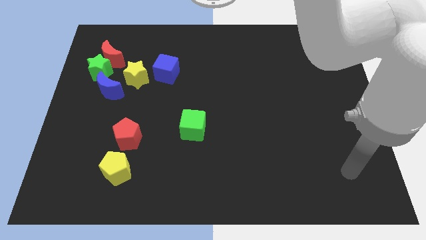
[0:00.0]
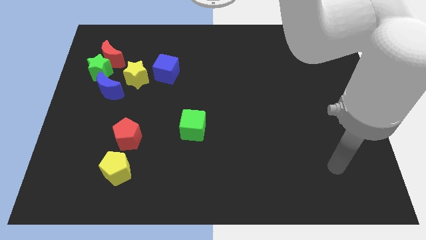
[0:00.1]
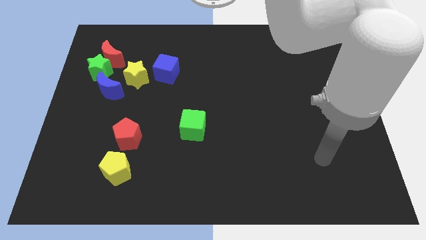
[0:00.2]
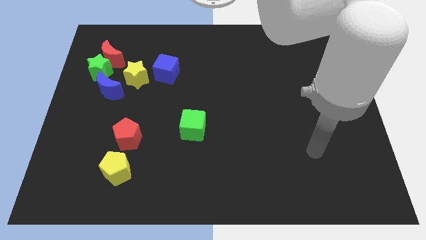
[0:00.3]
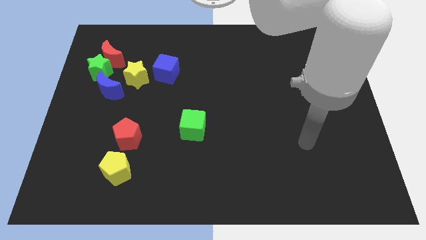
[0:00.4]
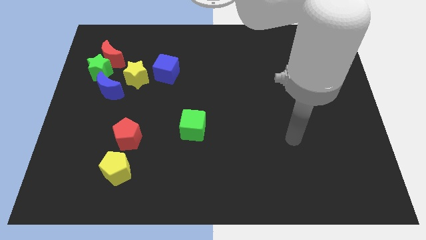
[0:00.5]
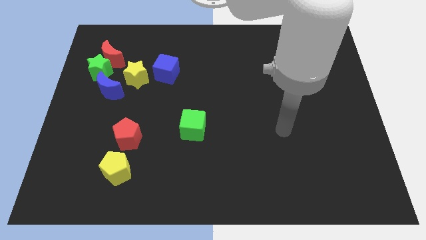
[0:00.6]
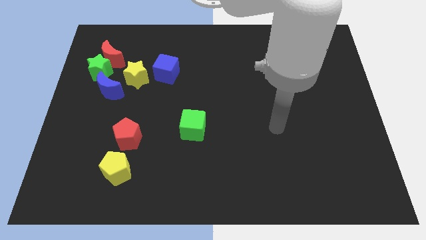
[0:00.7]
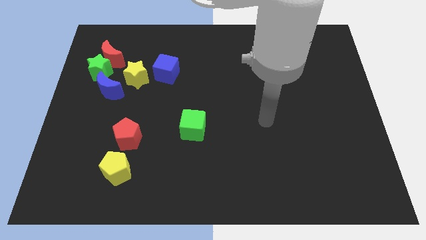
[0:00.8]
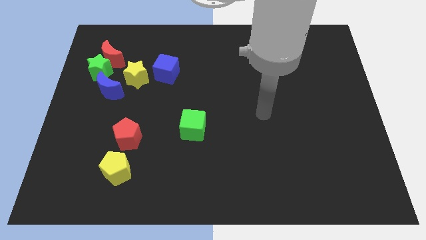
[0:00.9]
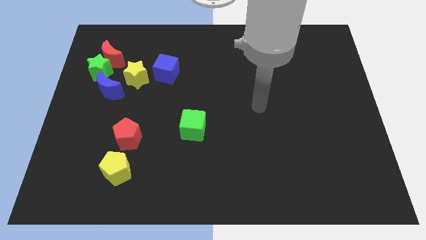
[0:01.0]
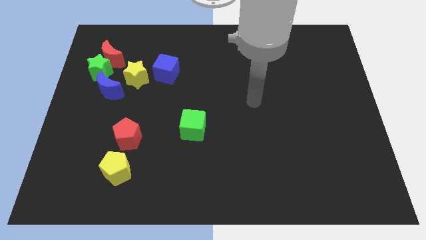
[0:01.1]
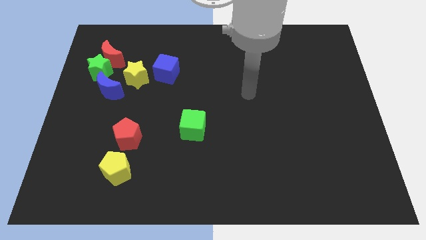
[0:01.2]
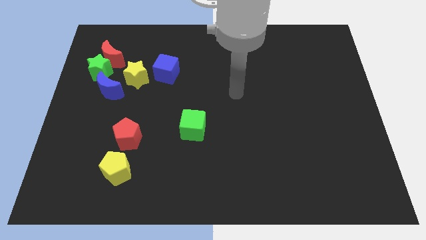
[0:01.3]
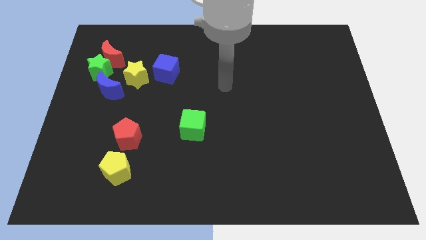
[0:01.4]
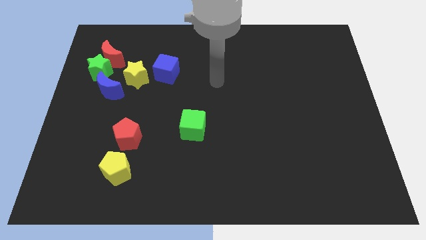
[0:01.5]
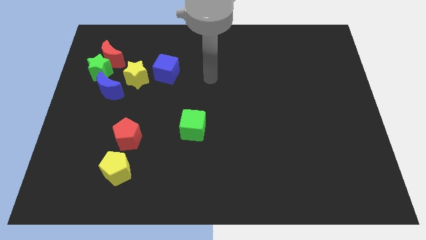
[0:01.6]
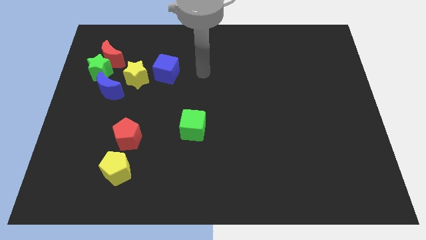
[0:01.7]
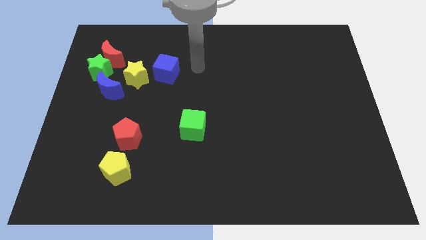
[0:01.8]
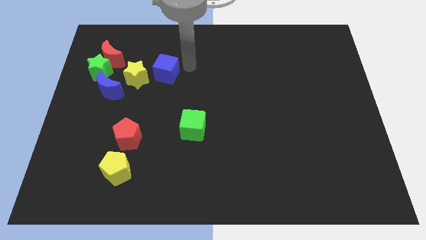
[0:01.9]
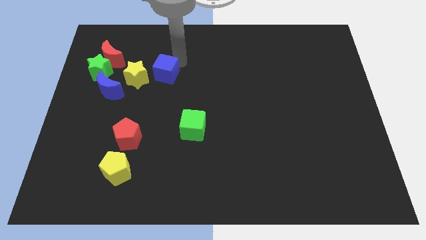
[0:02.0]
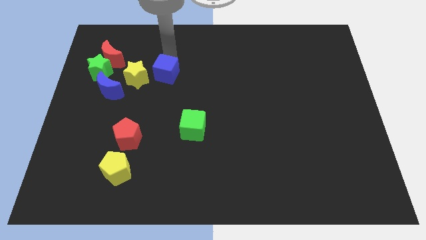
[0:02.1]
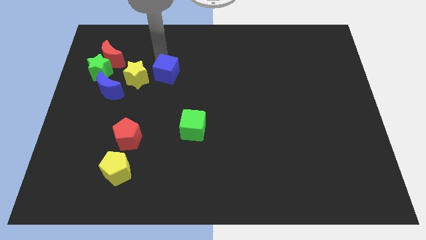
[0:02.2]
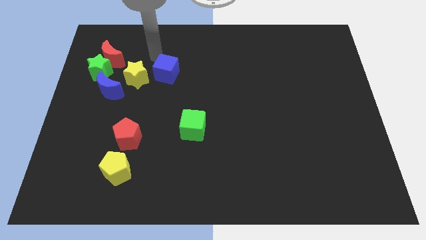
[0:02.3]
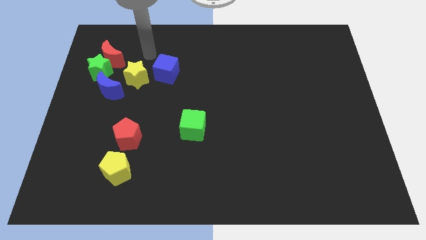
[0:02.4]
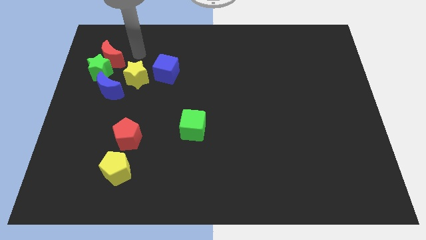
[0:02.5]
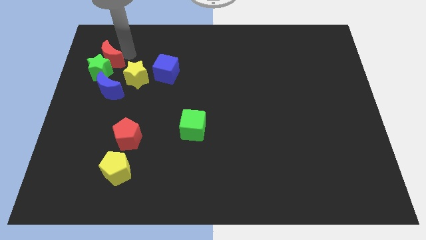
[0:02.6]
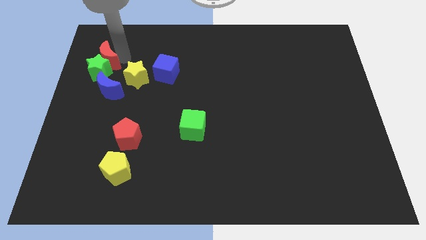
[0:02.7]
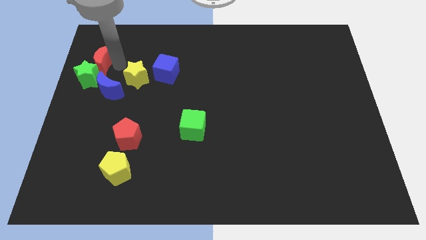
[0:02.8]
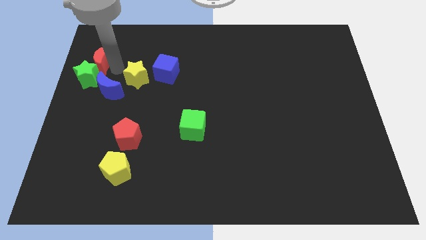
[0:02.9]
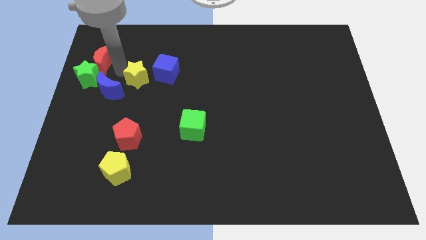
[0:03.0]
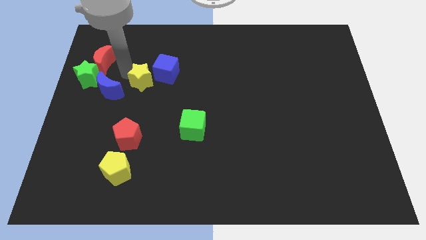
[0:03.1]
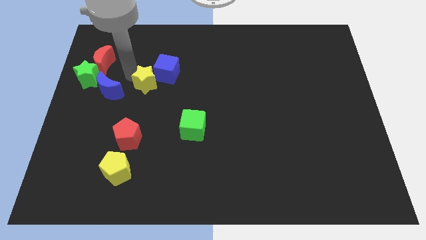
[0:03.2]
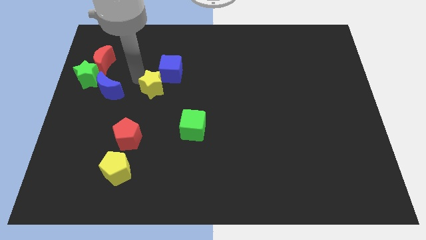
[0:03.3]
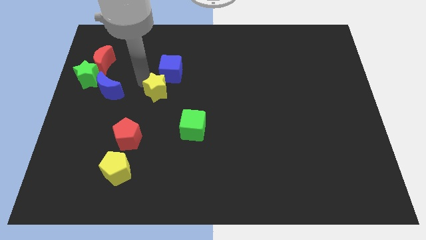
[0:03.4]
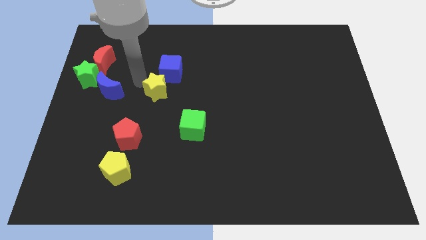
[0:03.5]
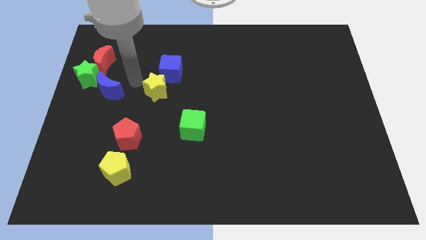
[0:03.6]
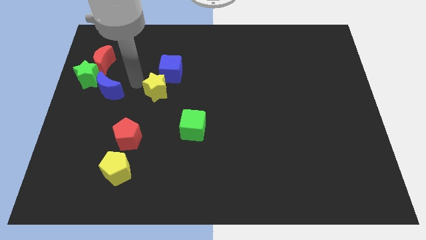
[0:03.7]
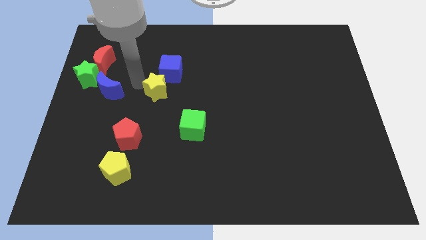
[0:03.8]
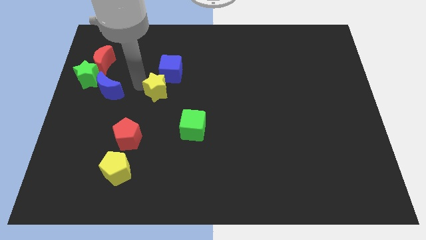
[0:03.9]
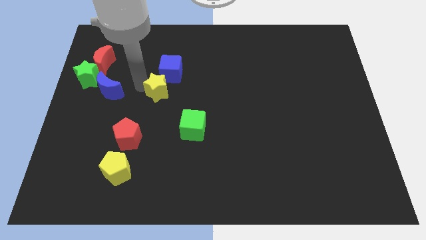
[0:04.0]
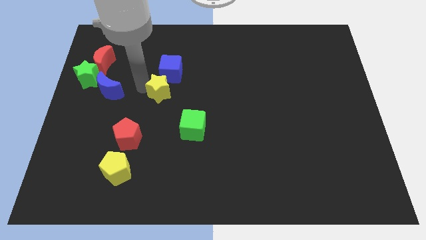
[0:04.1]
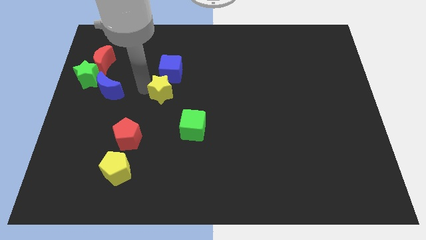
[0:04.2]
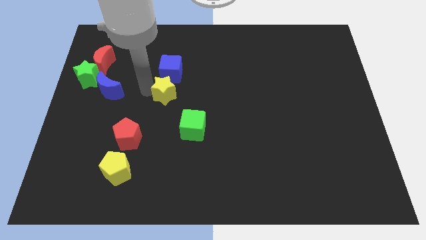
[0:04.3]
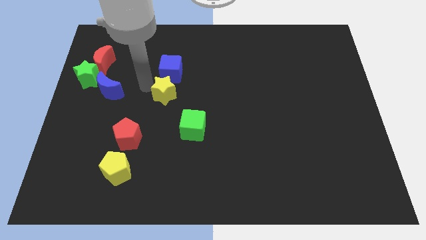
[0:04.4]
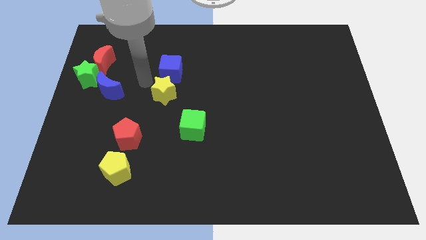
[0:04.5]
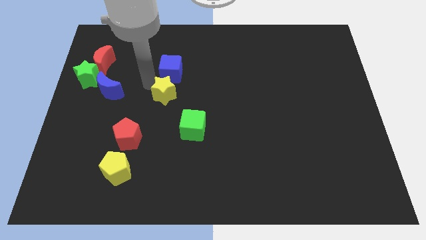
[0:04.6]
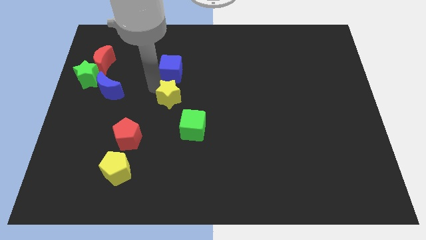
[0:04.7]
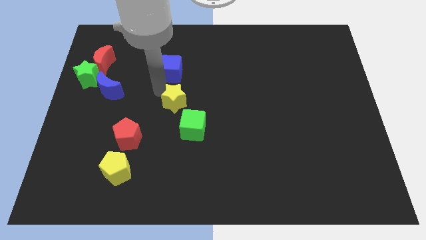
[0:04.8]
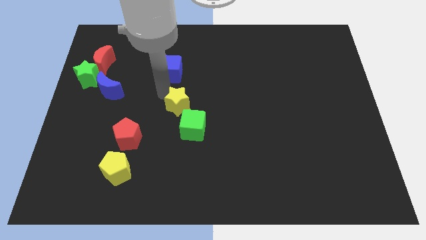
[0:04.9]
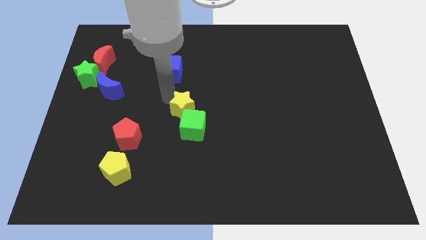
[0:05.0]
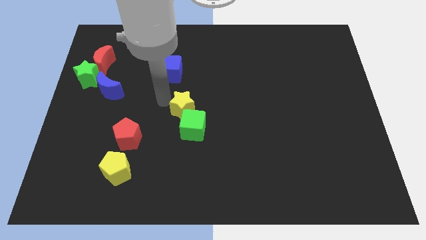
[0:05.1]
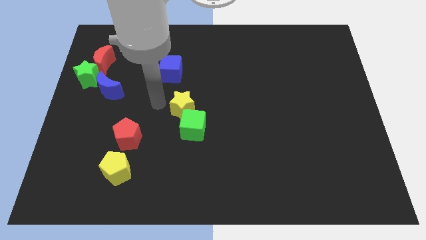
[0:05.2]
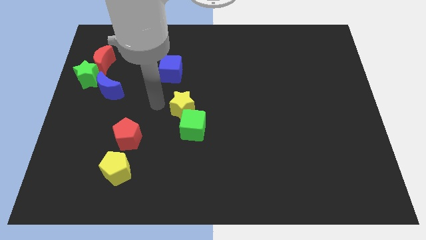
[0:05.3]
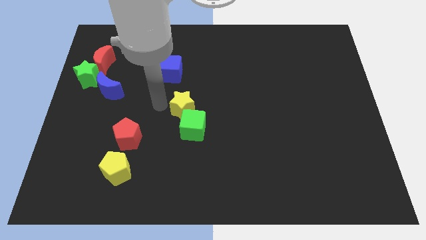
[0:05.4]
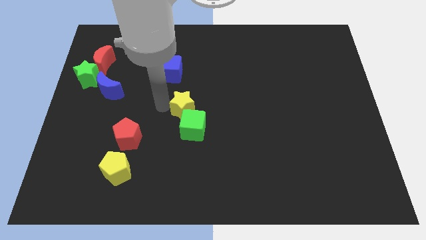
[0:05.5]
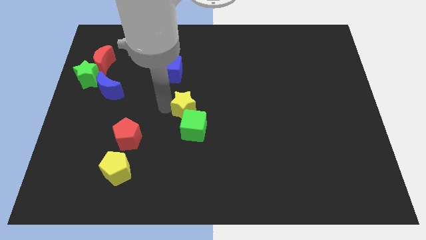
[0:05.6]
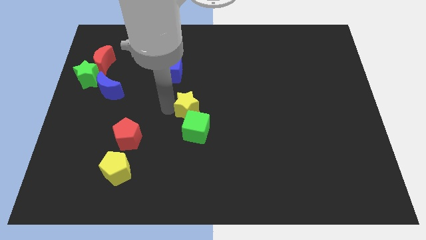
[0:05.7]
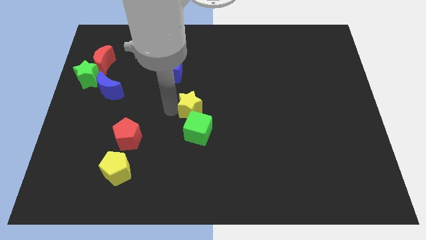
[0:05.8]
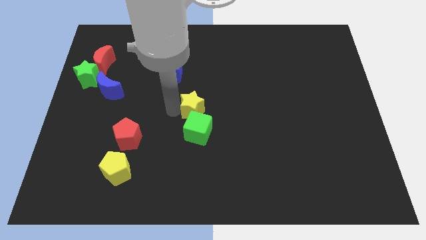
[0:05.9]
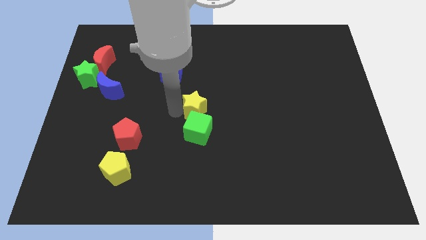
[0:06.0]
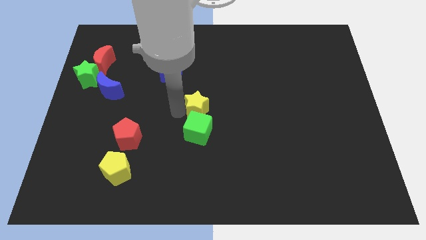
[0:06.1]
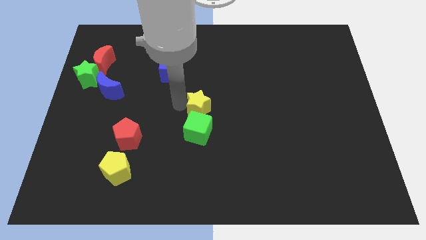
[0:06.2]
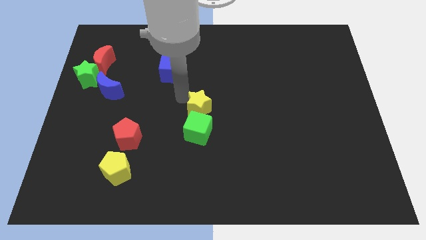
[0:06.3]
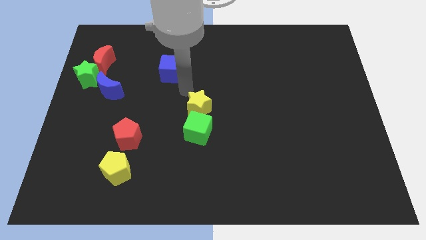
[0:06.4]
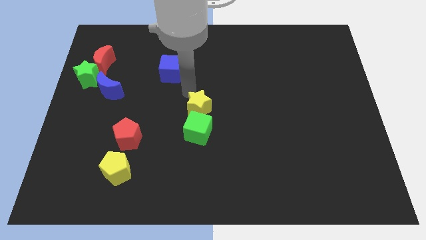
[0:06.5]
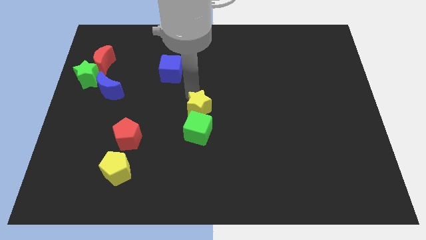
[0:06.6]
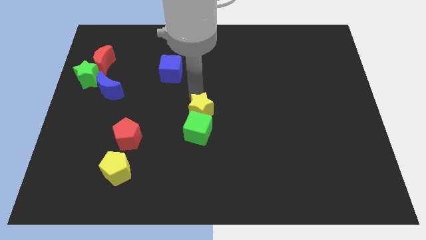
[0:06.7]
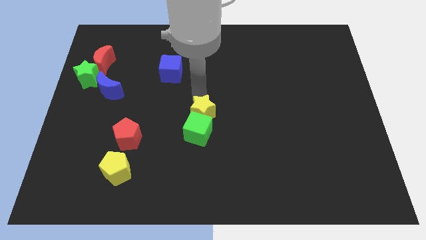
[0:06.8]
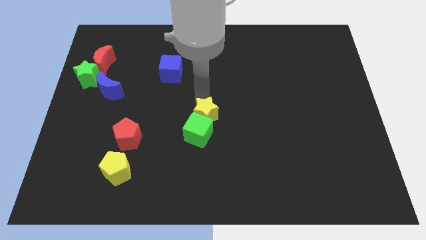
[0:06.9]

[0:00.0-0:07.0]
move the yellow star diagonally downwards and to the right

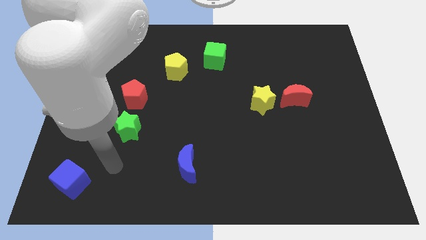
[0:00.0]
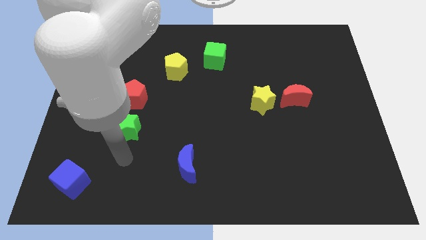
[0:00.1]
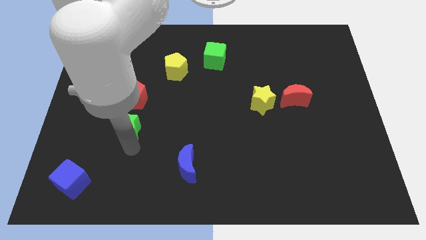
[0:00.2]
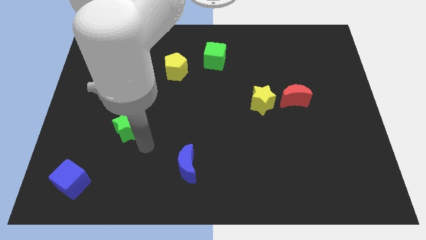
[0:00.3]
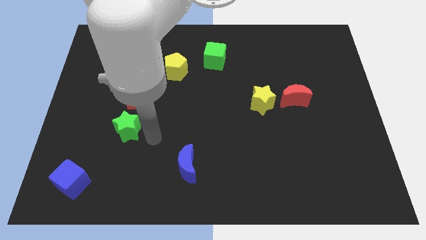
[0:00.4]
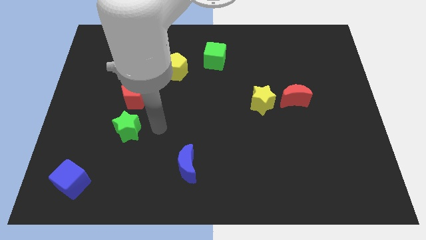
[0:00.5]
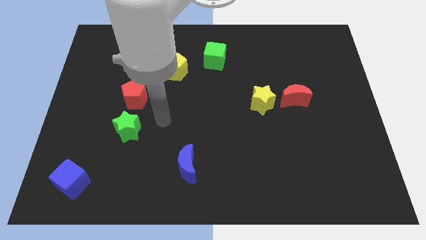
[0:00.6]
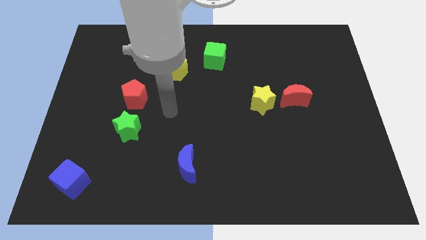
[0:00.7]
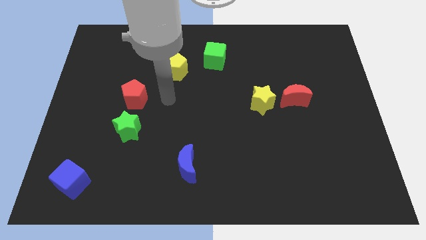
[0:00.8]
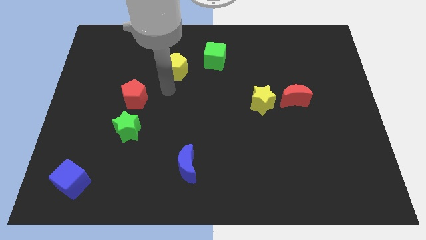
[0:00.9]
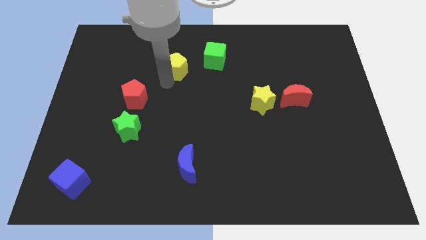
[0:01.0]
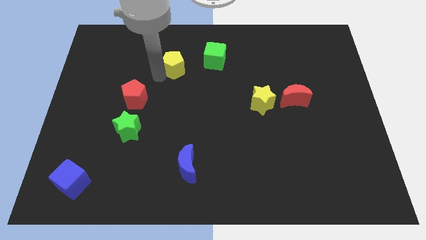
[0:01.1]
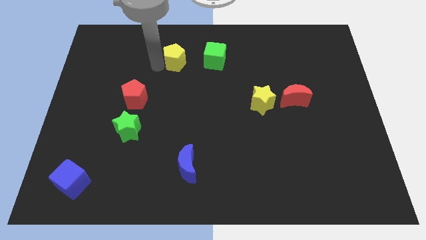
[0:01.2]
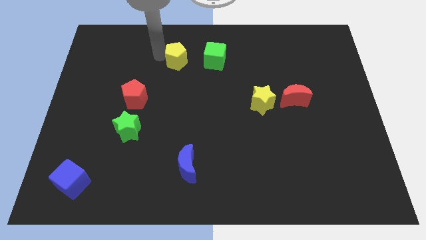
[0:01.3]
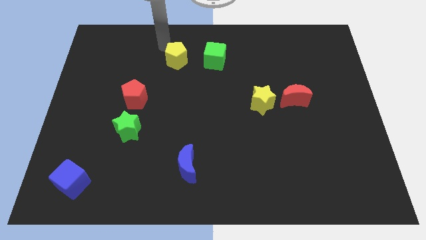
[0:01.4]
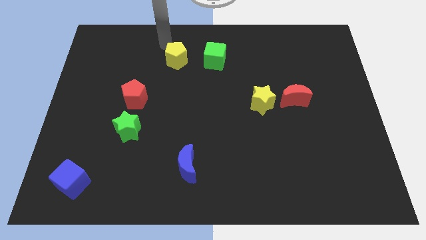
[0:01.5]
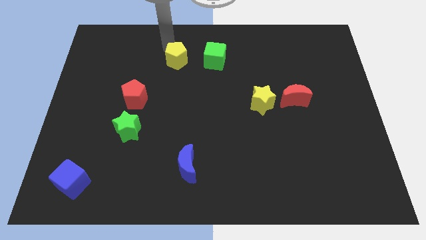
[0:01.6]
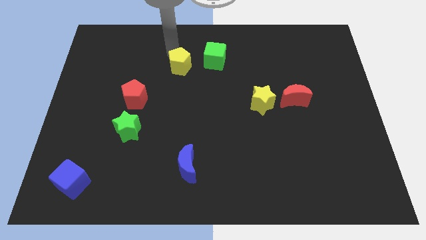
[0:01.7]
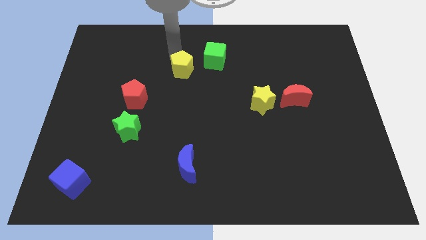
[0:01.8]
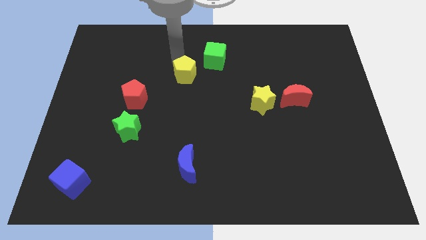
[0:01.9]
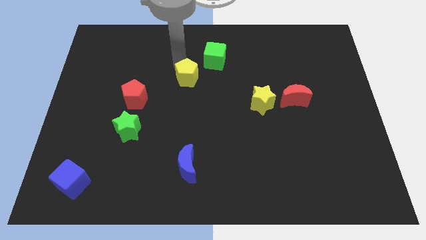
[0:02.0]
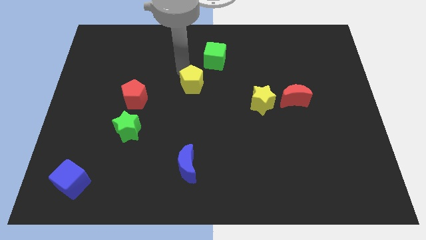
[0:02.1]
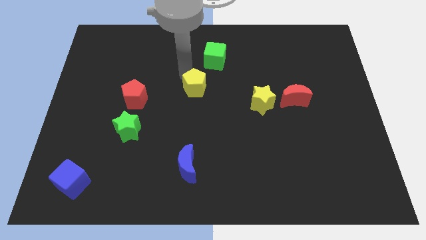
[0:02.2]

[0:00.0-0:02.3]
slide the yellow pentagon somewhat downwards and then right
